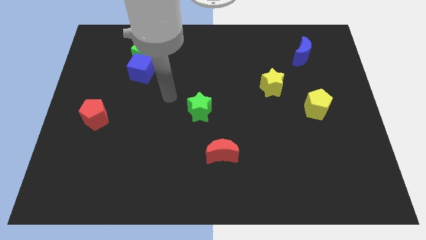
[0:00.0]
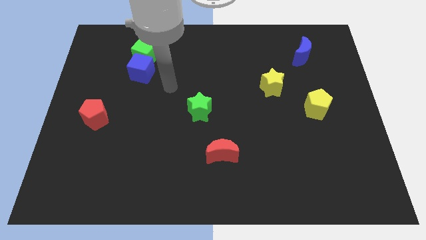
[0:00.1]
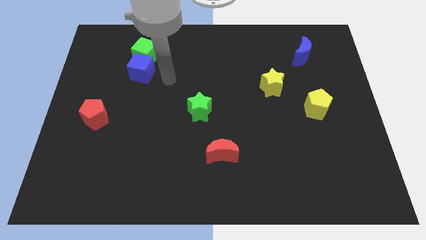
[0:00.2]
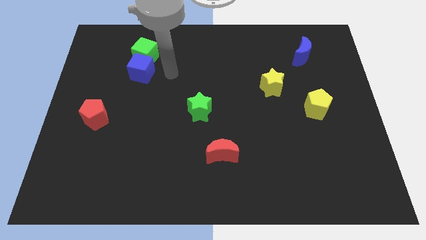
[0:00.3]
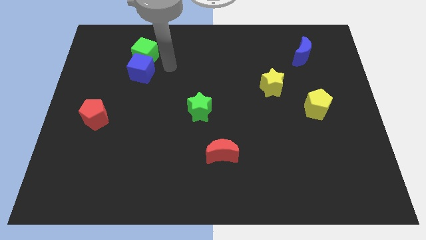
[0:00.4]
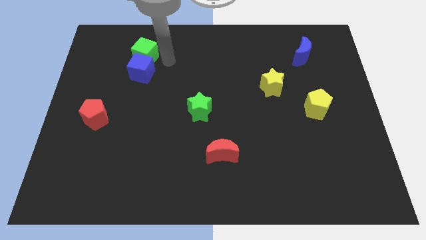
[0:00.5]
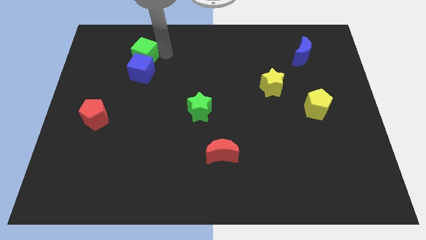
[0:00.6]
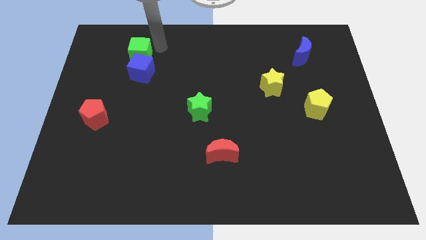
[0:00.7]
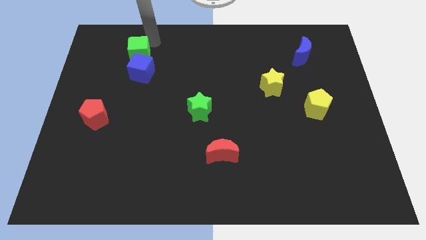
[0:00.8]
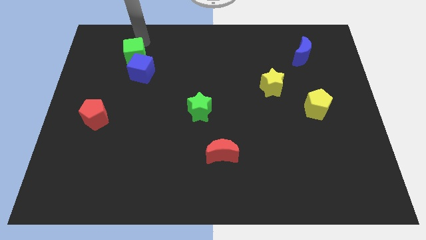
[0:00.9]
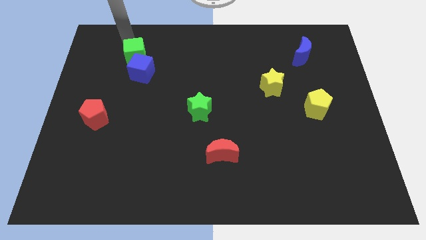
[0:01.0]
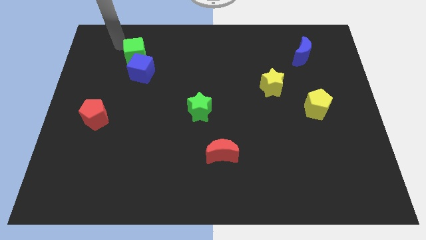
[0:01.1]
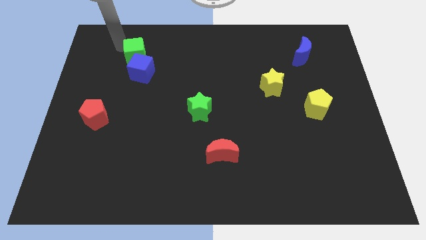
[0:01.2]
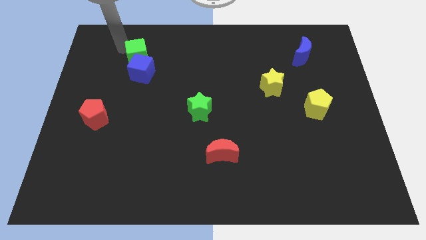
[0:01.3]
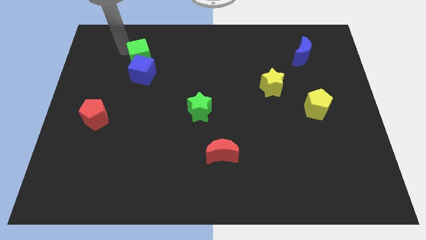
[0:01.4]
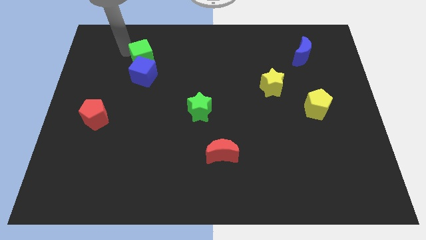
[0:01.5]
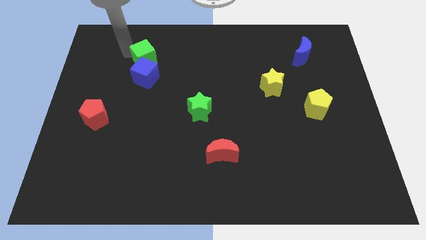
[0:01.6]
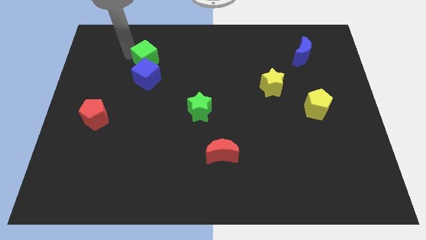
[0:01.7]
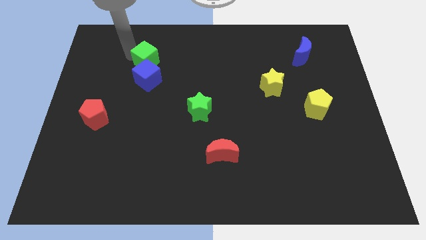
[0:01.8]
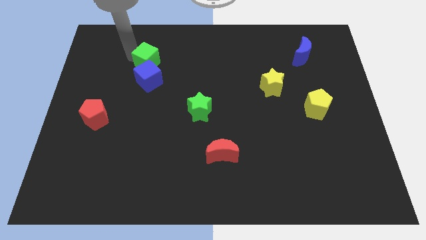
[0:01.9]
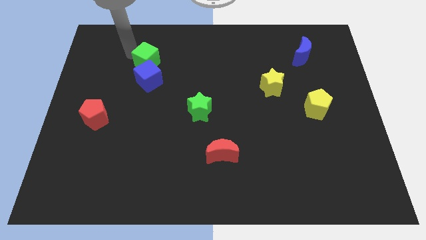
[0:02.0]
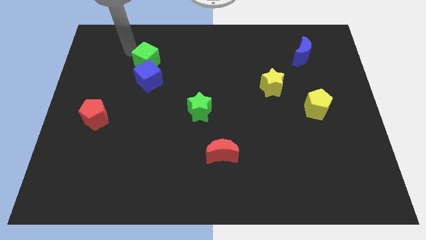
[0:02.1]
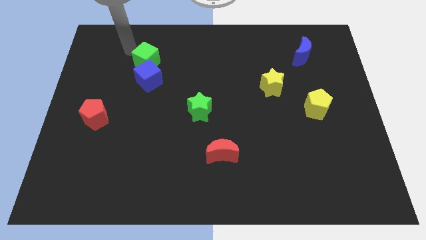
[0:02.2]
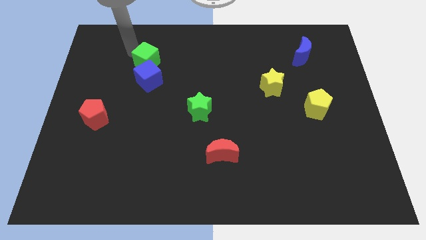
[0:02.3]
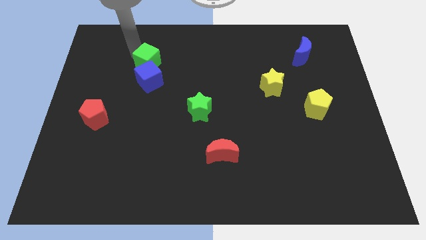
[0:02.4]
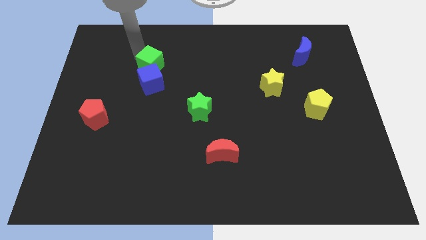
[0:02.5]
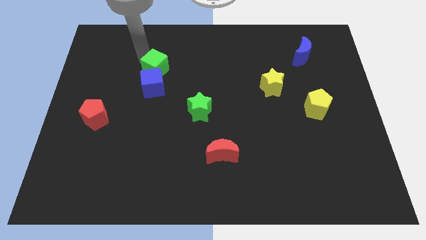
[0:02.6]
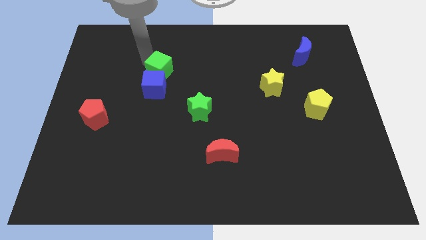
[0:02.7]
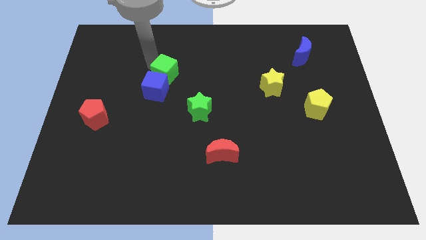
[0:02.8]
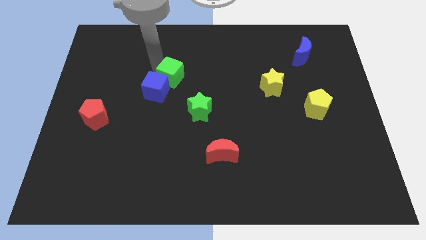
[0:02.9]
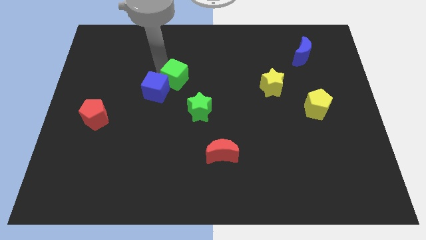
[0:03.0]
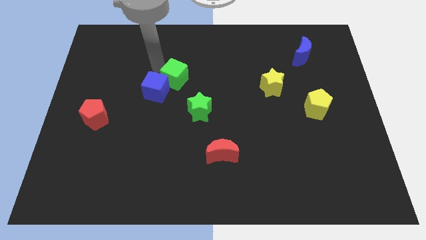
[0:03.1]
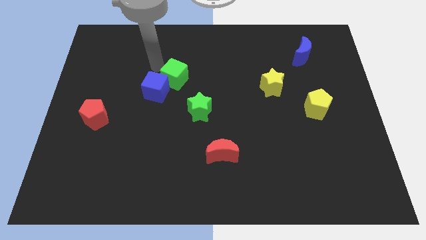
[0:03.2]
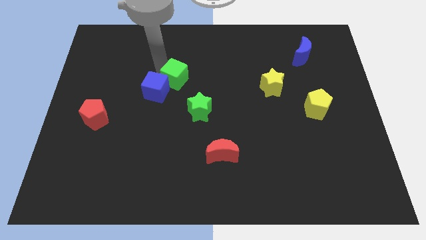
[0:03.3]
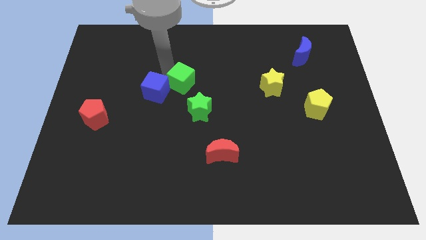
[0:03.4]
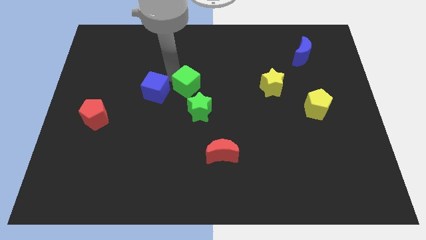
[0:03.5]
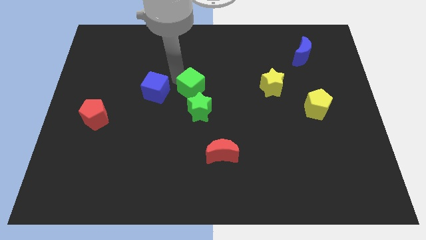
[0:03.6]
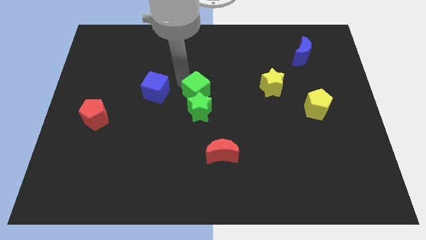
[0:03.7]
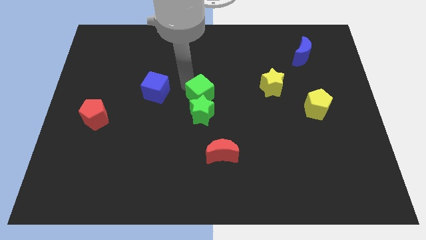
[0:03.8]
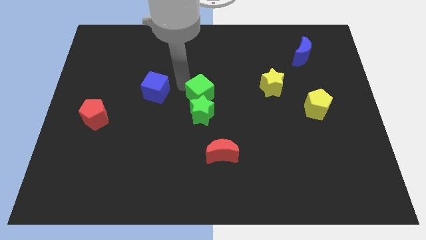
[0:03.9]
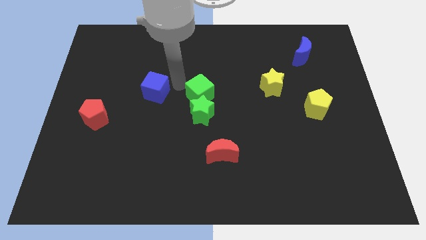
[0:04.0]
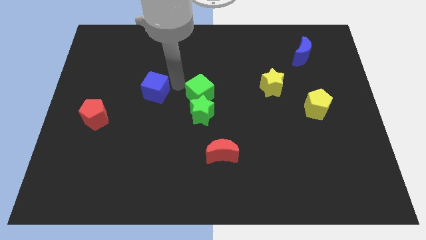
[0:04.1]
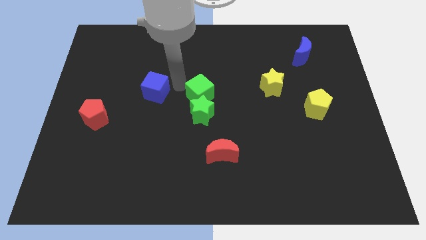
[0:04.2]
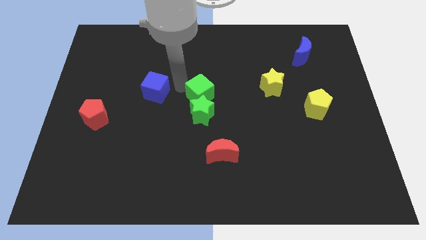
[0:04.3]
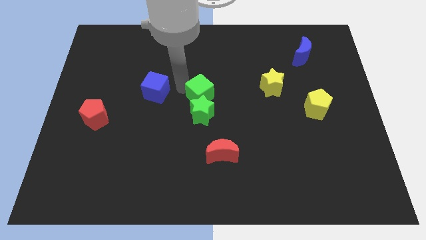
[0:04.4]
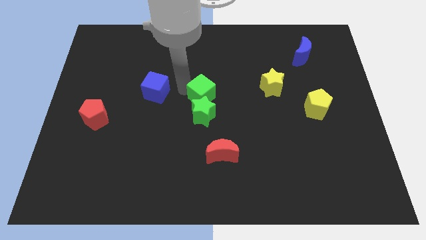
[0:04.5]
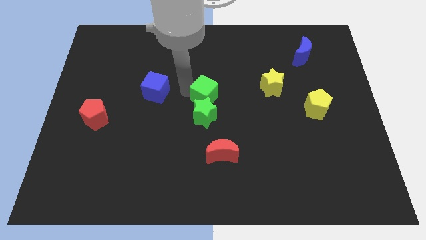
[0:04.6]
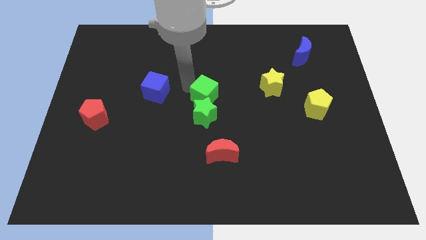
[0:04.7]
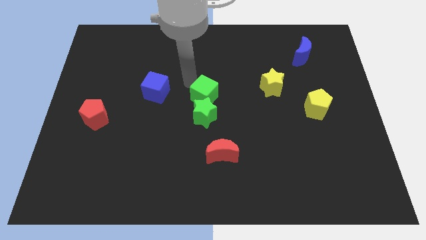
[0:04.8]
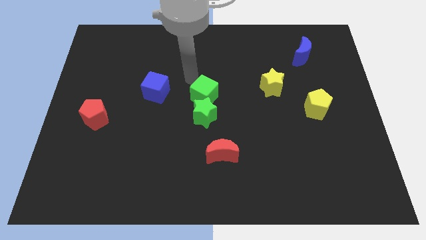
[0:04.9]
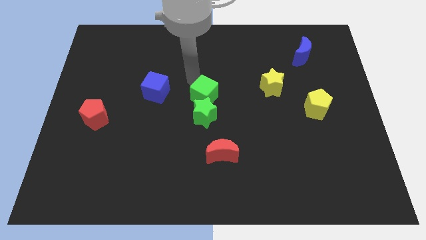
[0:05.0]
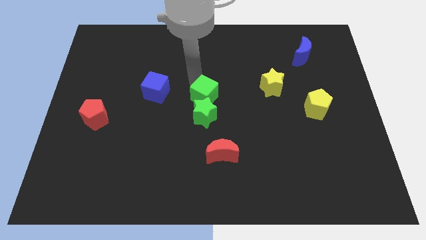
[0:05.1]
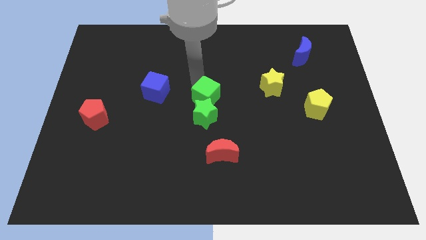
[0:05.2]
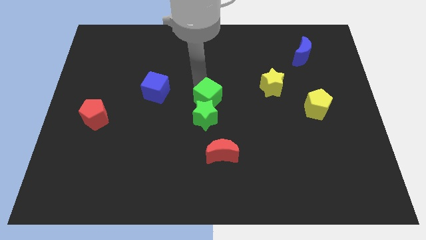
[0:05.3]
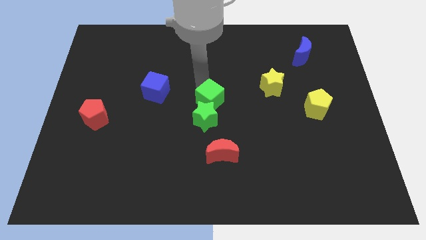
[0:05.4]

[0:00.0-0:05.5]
put the green cube to the top side of the red moon

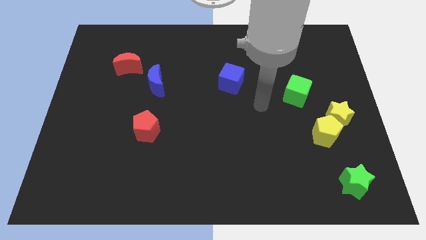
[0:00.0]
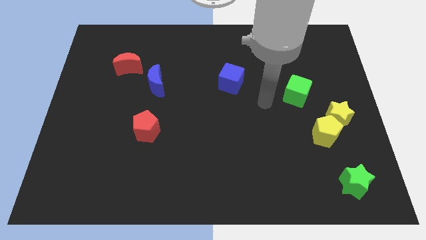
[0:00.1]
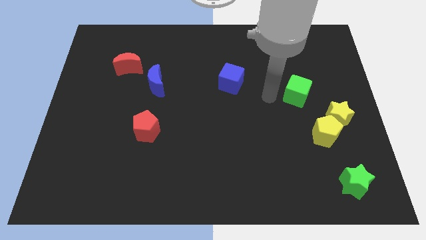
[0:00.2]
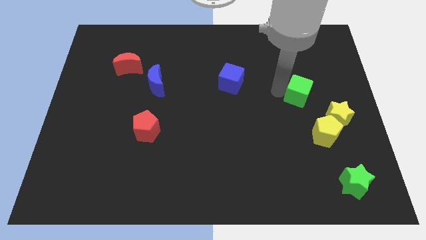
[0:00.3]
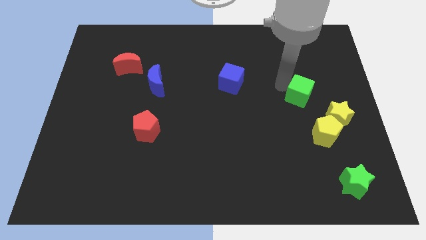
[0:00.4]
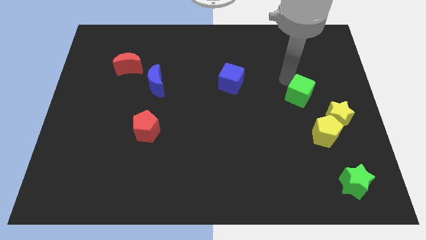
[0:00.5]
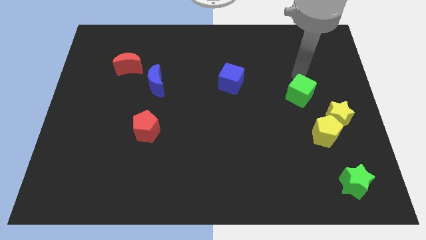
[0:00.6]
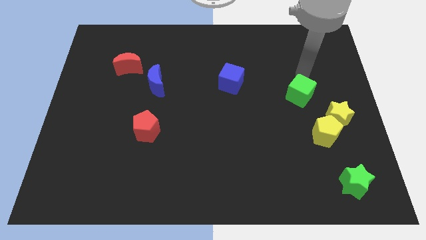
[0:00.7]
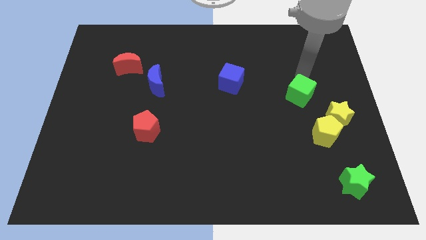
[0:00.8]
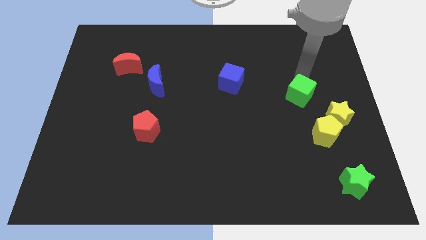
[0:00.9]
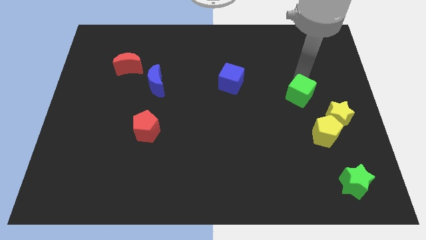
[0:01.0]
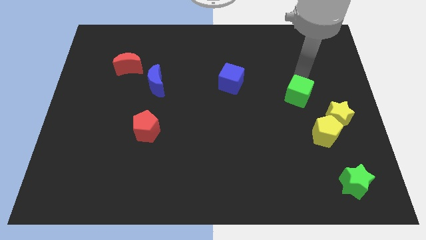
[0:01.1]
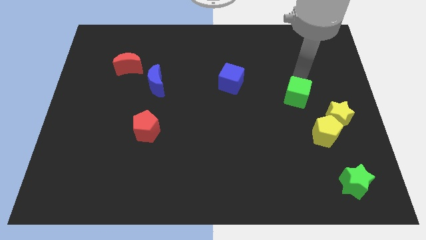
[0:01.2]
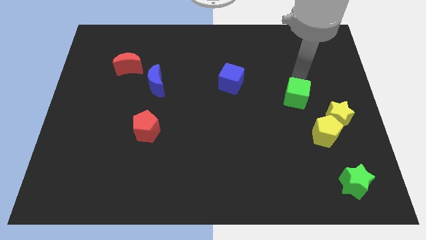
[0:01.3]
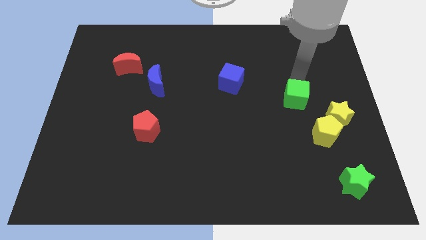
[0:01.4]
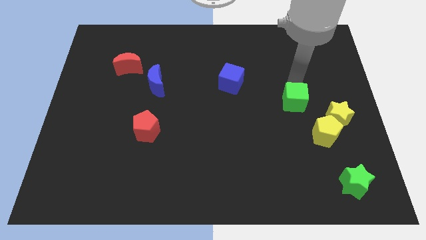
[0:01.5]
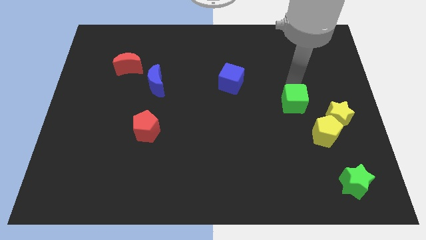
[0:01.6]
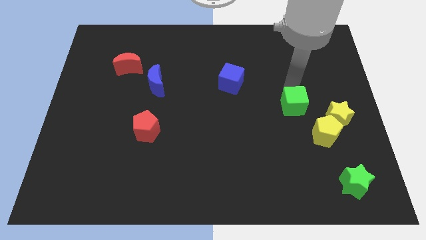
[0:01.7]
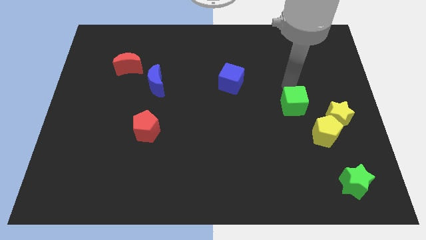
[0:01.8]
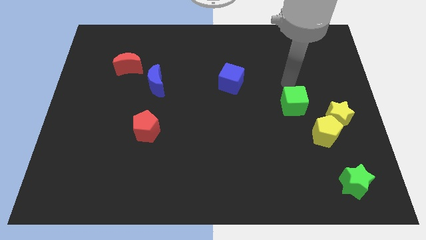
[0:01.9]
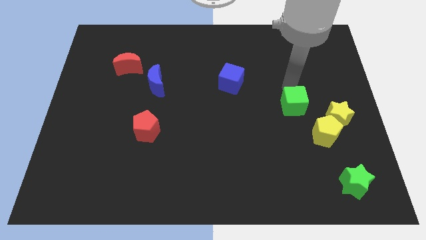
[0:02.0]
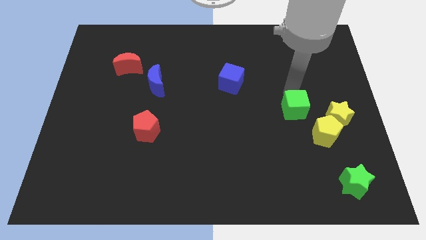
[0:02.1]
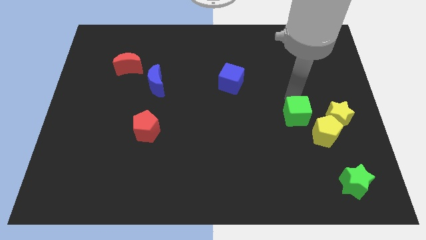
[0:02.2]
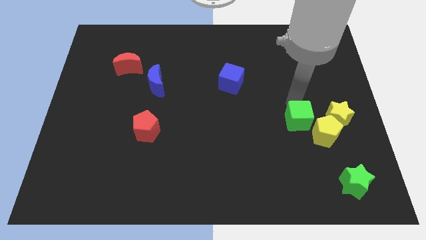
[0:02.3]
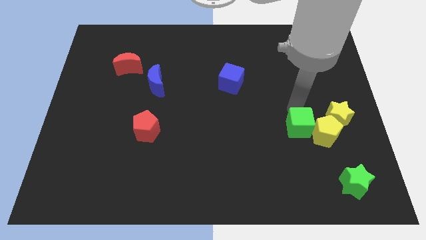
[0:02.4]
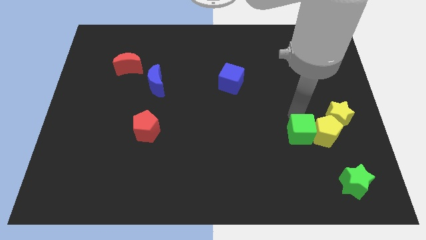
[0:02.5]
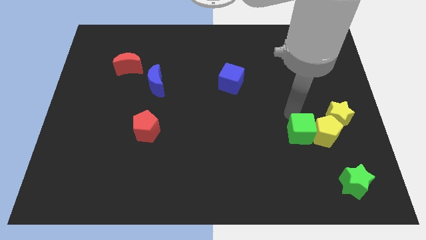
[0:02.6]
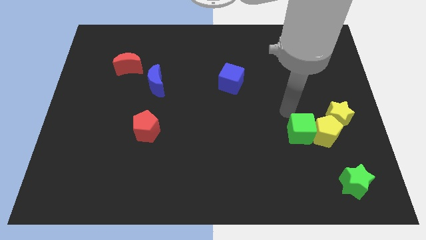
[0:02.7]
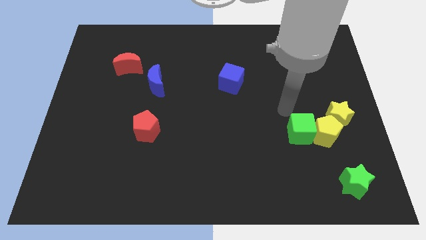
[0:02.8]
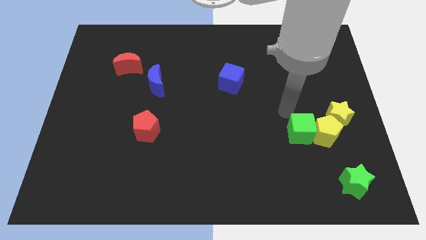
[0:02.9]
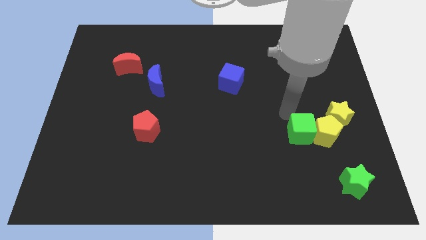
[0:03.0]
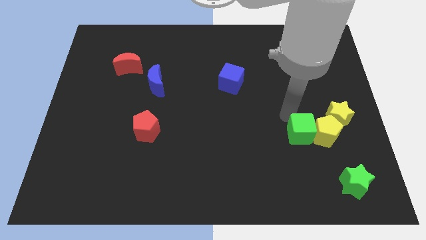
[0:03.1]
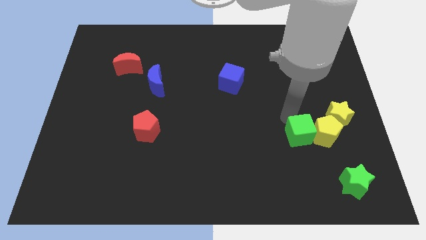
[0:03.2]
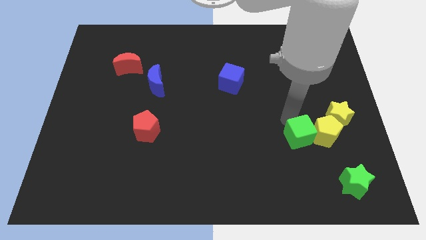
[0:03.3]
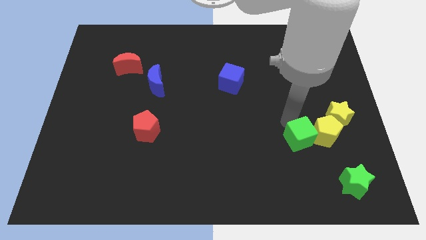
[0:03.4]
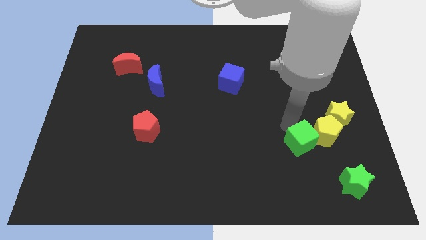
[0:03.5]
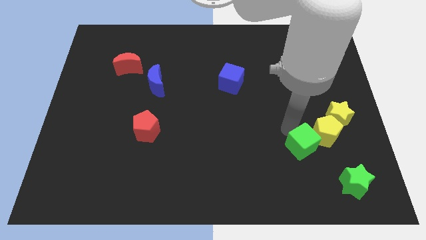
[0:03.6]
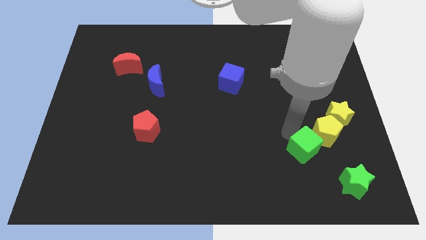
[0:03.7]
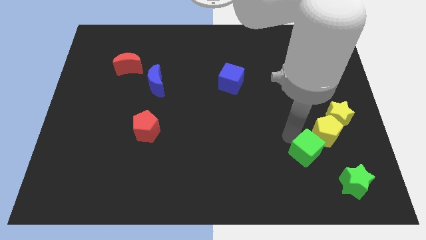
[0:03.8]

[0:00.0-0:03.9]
put the green cube below the yellow pentagon
